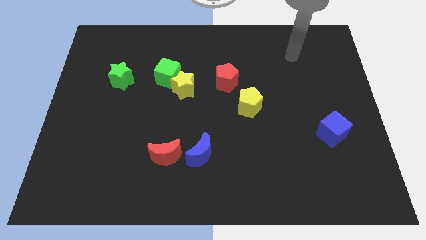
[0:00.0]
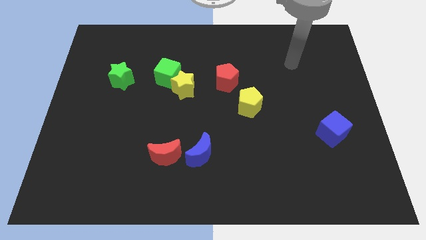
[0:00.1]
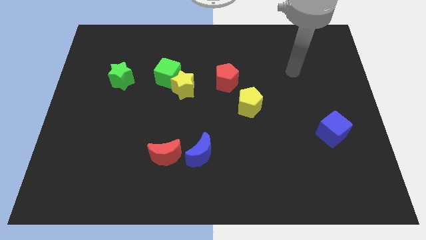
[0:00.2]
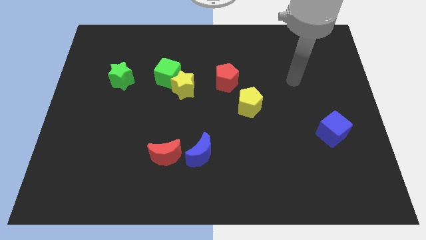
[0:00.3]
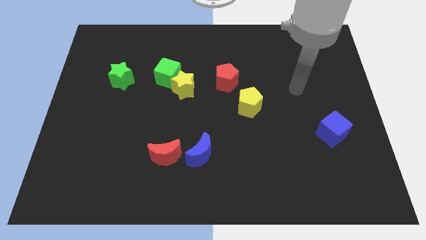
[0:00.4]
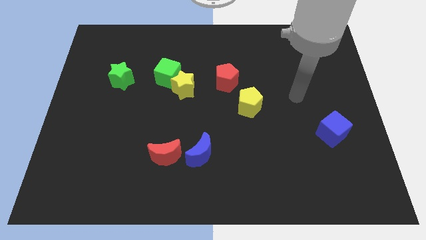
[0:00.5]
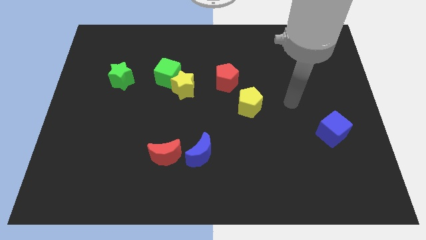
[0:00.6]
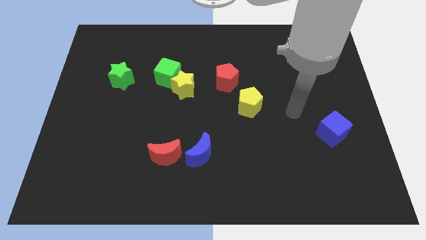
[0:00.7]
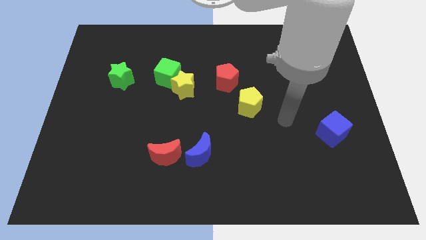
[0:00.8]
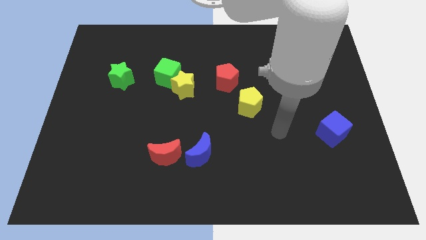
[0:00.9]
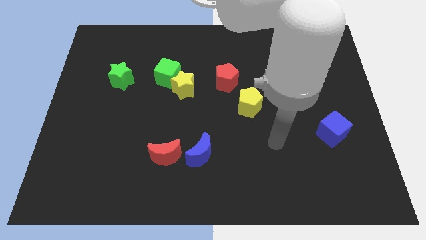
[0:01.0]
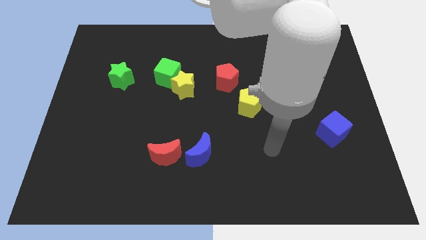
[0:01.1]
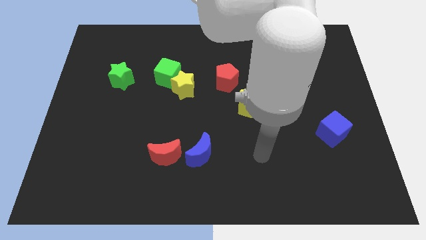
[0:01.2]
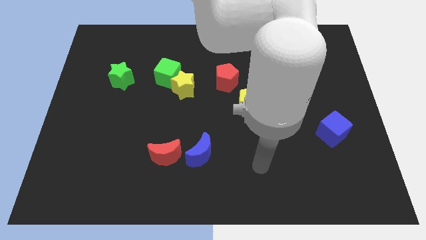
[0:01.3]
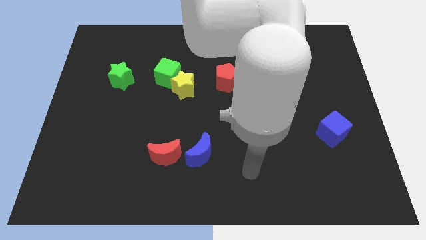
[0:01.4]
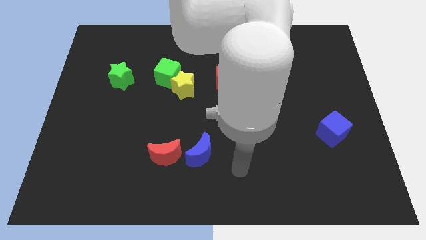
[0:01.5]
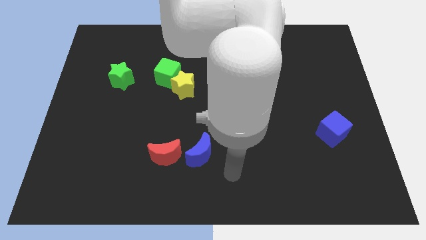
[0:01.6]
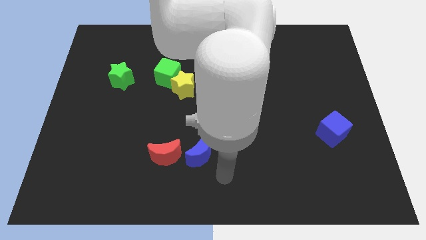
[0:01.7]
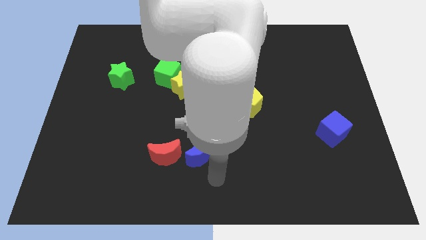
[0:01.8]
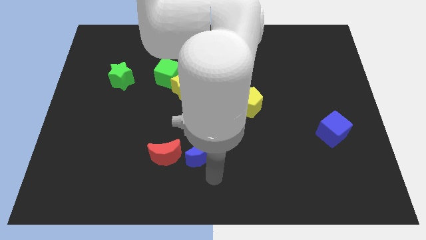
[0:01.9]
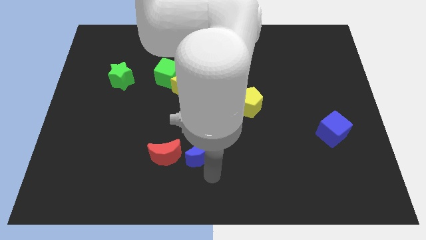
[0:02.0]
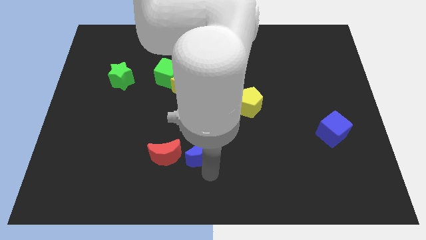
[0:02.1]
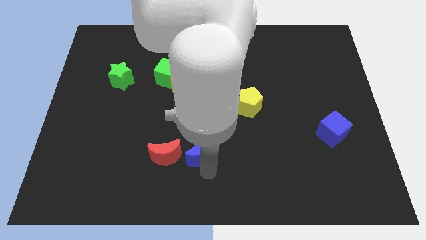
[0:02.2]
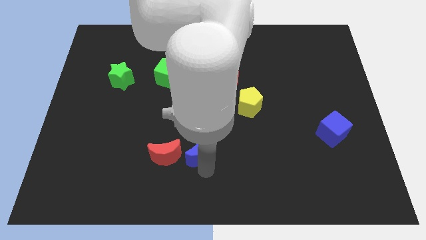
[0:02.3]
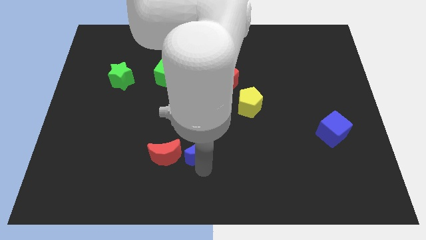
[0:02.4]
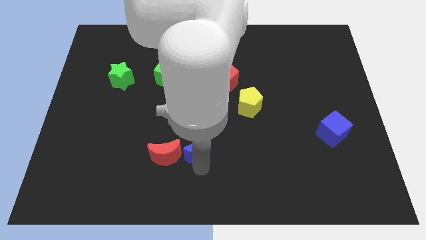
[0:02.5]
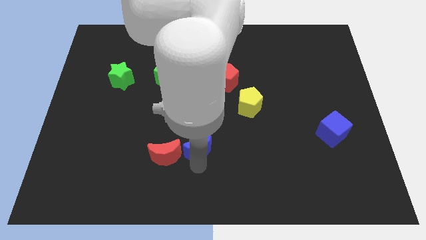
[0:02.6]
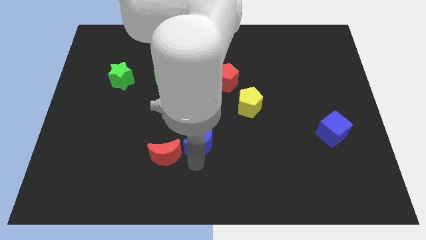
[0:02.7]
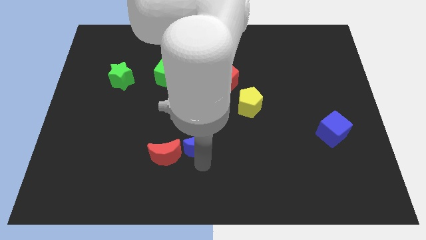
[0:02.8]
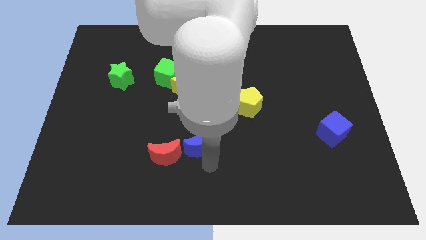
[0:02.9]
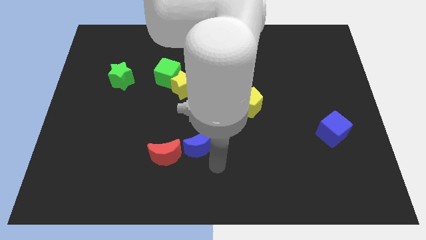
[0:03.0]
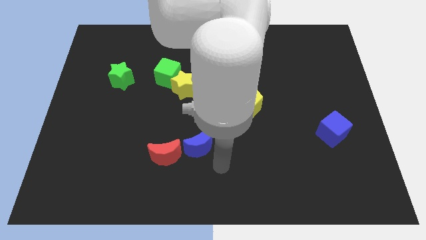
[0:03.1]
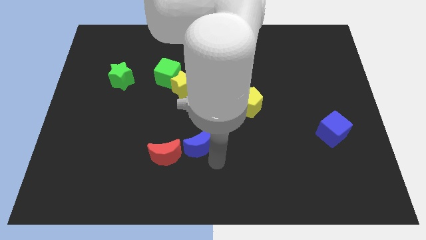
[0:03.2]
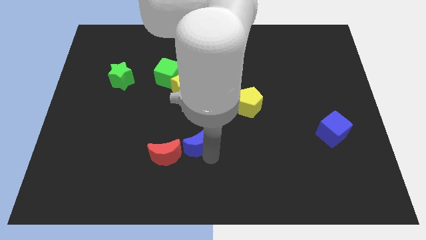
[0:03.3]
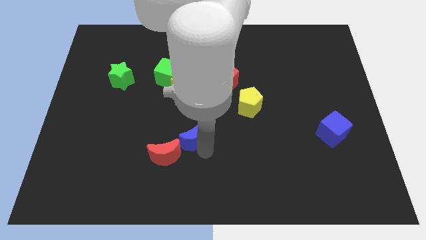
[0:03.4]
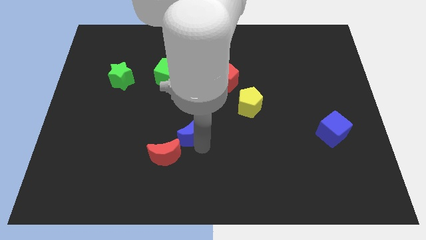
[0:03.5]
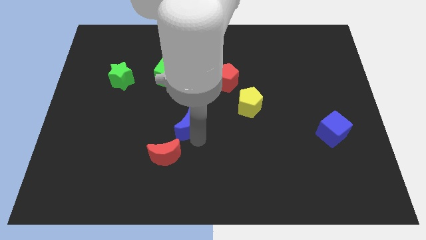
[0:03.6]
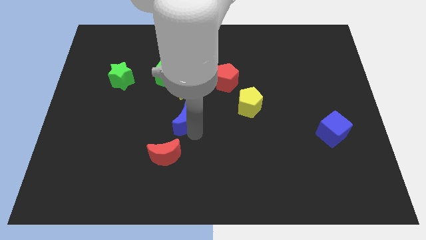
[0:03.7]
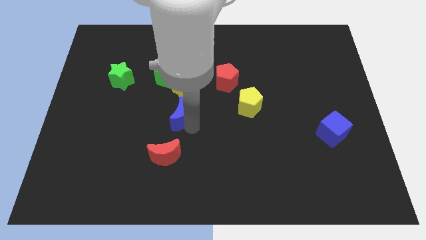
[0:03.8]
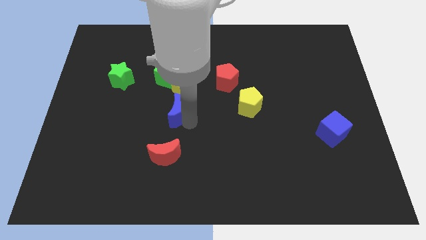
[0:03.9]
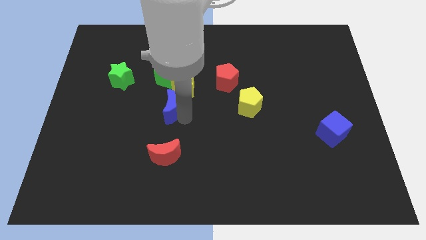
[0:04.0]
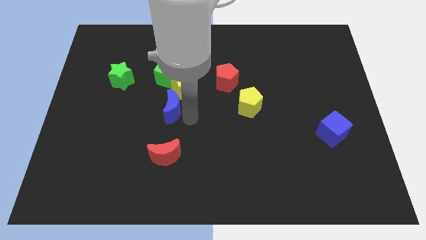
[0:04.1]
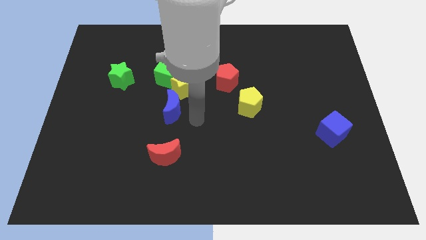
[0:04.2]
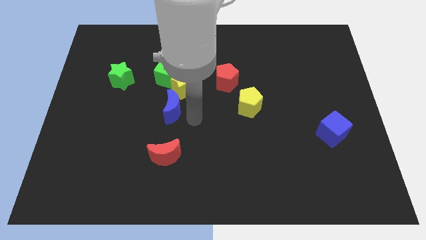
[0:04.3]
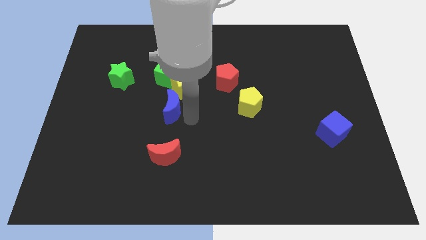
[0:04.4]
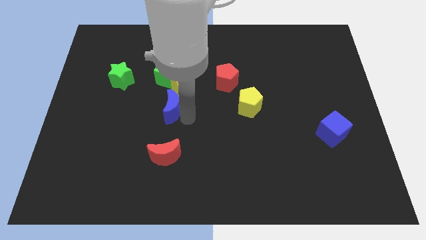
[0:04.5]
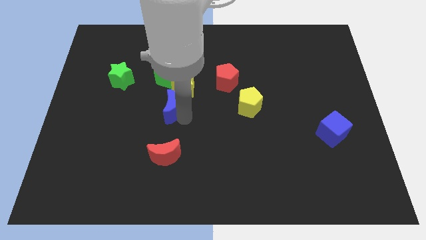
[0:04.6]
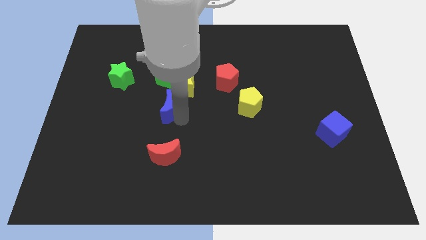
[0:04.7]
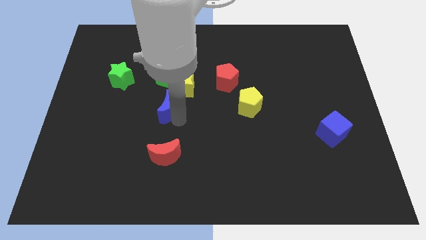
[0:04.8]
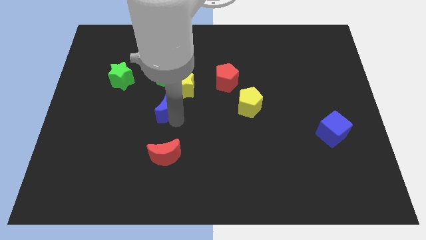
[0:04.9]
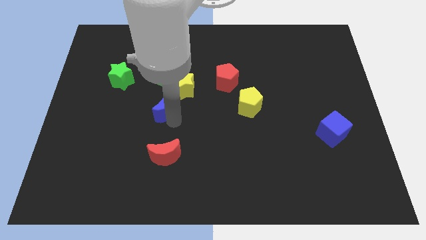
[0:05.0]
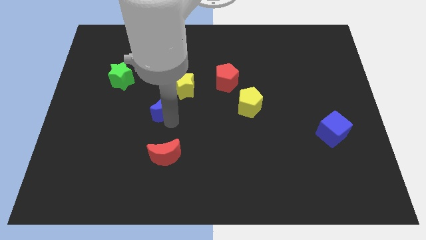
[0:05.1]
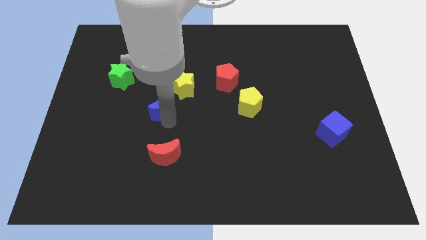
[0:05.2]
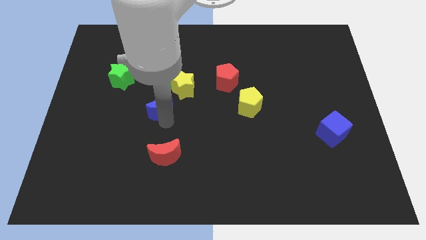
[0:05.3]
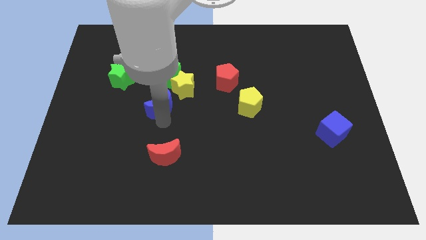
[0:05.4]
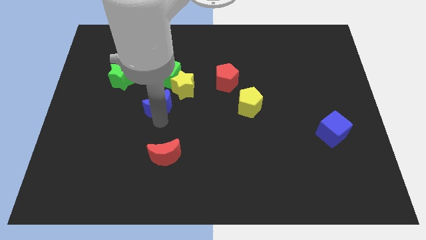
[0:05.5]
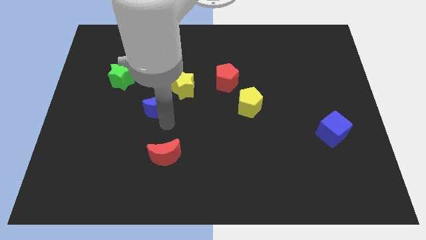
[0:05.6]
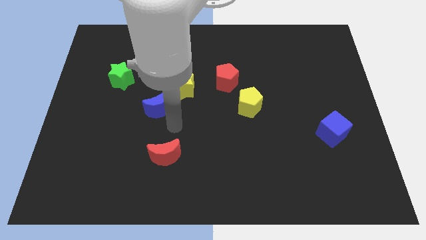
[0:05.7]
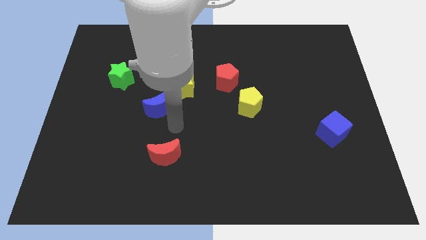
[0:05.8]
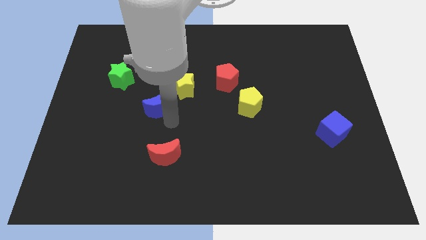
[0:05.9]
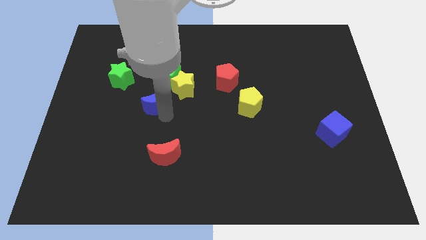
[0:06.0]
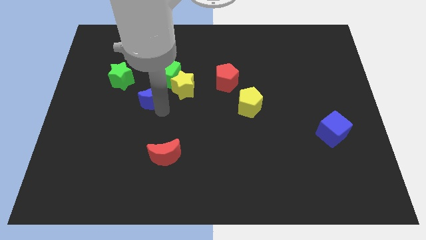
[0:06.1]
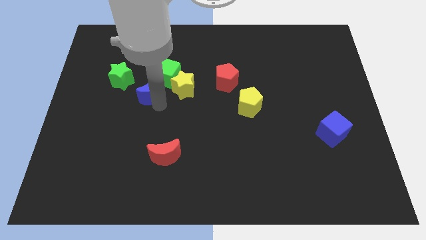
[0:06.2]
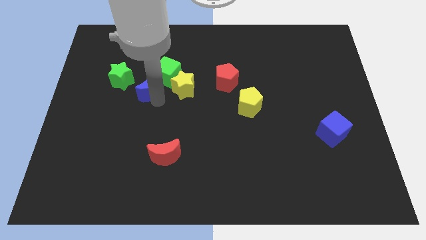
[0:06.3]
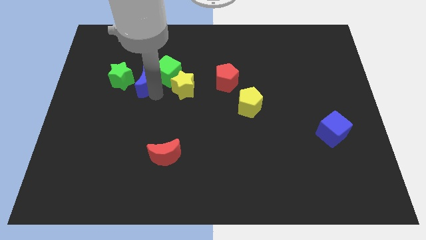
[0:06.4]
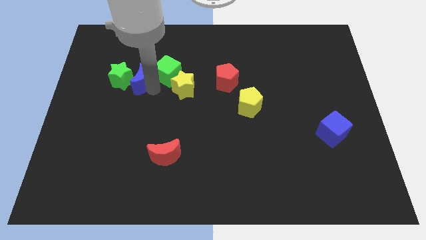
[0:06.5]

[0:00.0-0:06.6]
slide the blue moon to the green star
